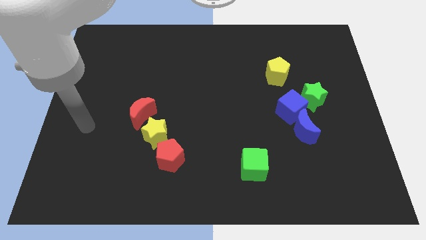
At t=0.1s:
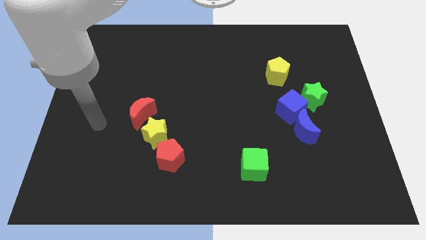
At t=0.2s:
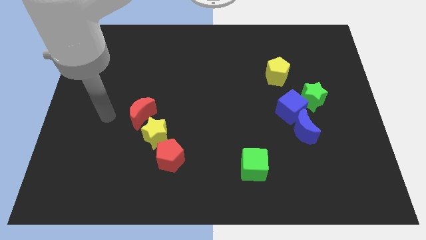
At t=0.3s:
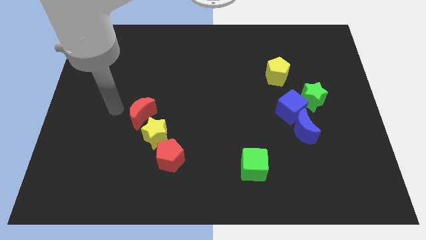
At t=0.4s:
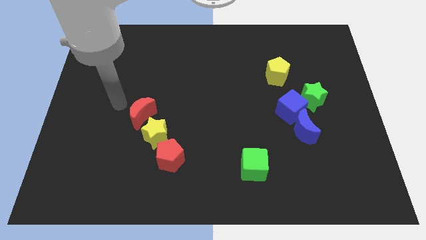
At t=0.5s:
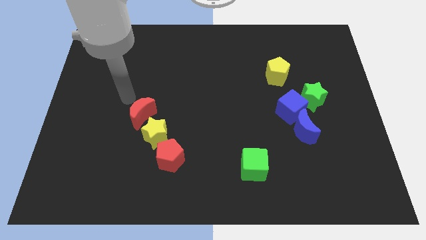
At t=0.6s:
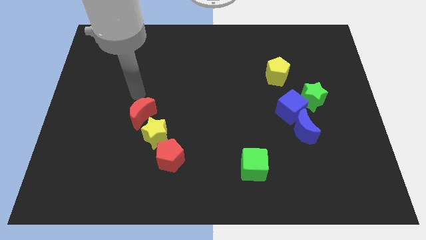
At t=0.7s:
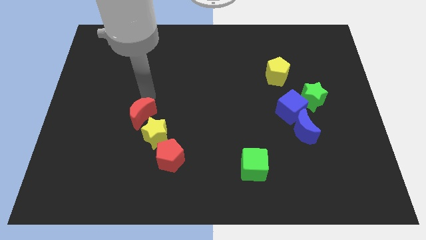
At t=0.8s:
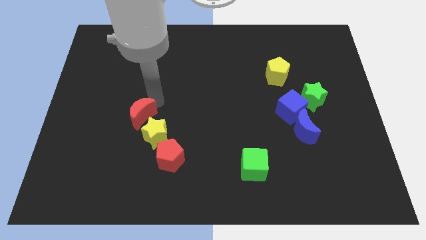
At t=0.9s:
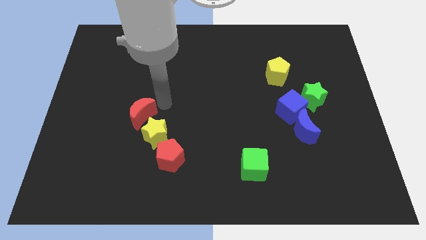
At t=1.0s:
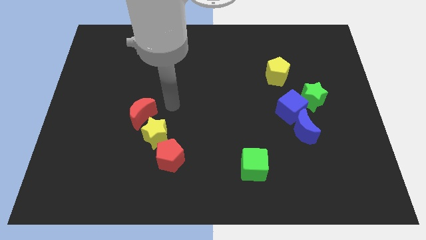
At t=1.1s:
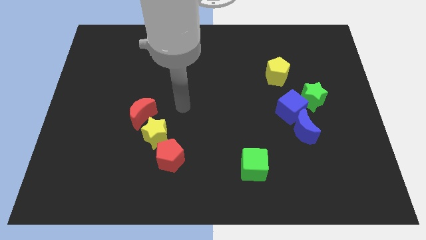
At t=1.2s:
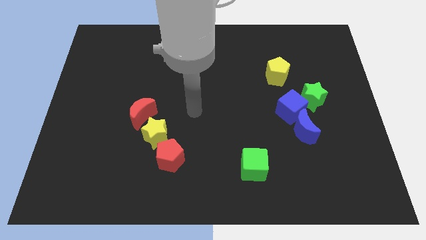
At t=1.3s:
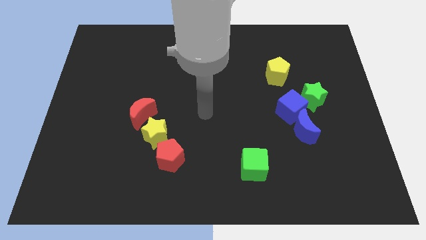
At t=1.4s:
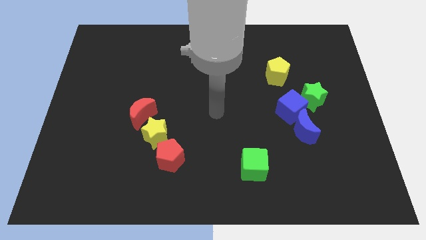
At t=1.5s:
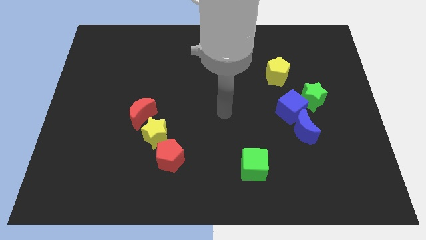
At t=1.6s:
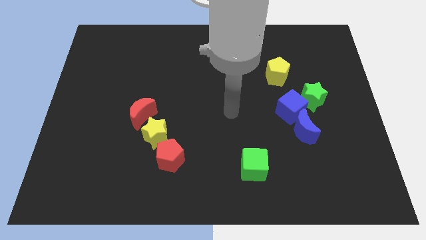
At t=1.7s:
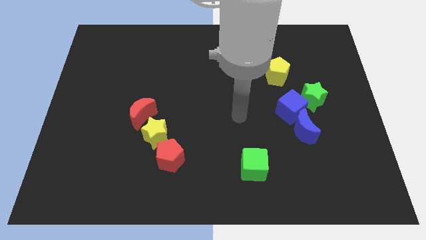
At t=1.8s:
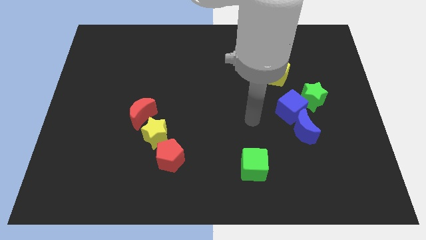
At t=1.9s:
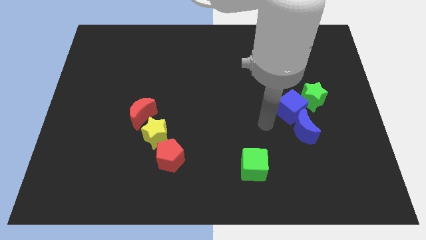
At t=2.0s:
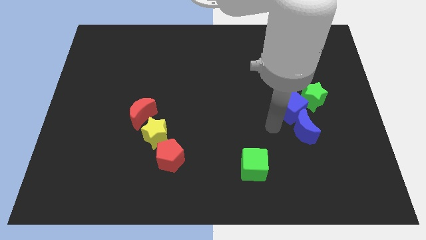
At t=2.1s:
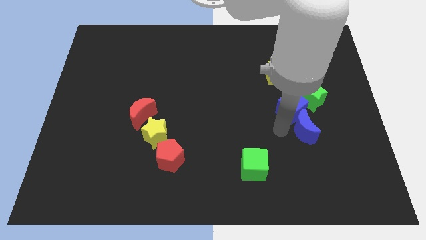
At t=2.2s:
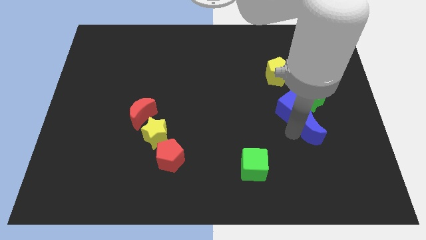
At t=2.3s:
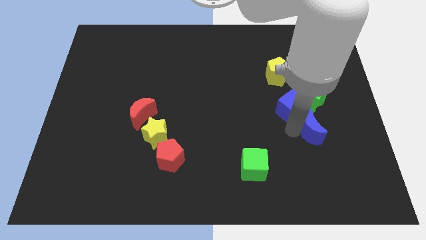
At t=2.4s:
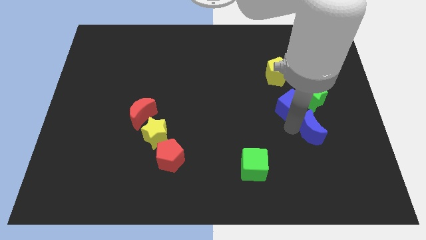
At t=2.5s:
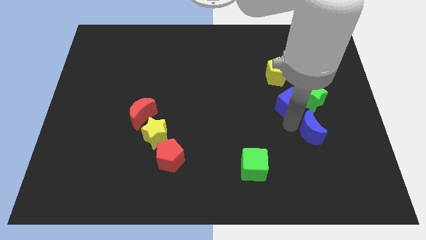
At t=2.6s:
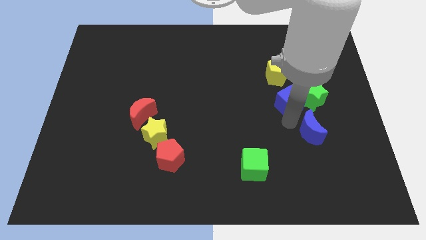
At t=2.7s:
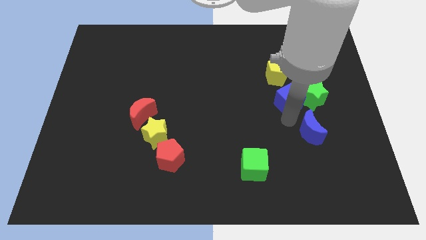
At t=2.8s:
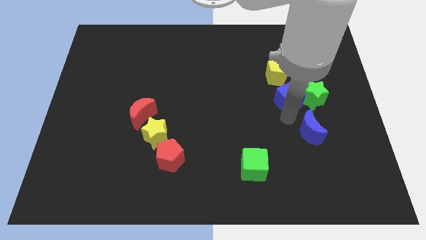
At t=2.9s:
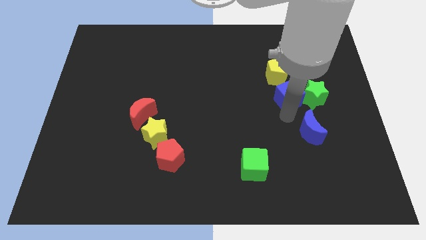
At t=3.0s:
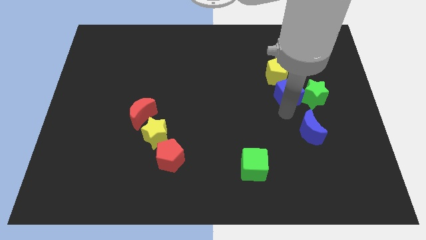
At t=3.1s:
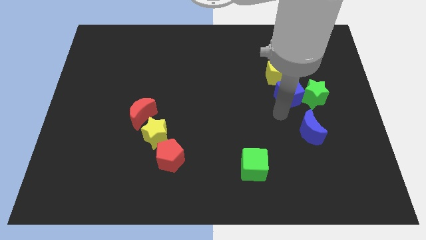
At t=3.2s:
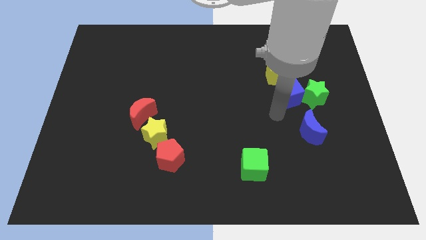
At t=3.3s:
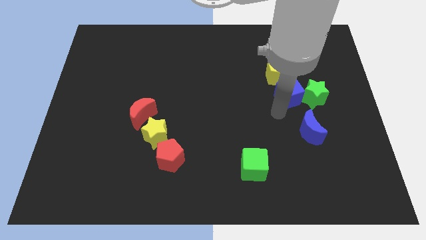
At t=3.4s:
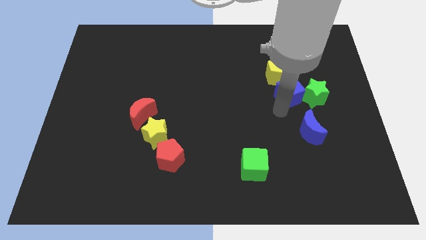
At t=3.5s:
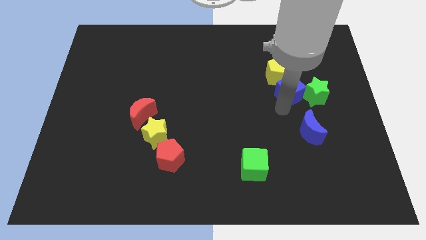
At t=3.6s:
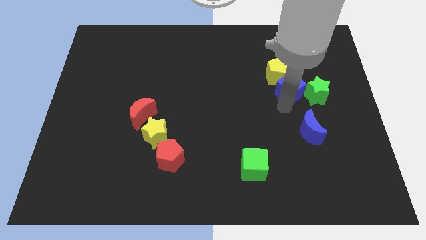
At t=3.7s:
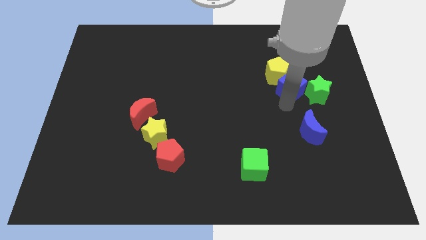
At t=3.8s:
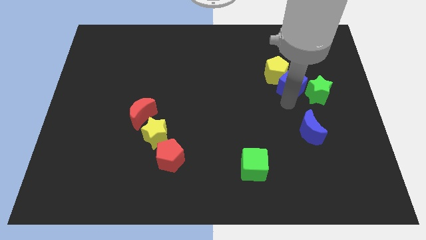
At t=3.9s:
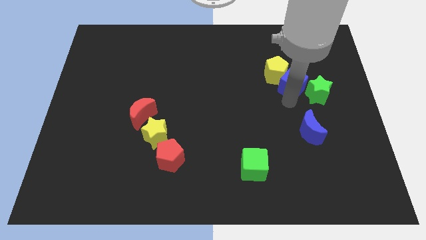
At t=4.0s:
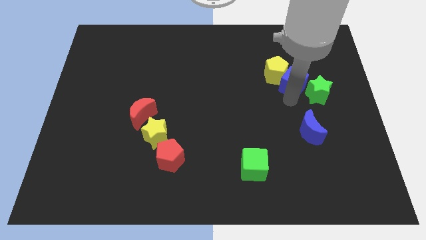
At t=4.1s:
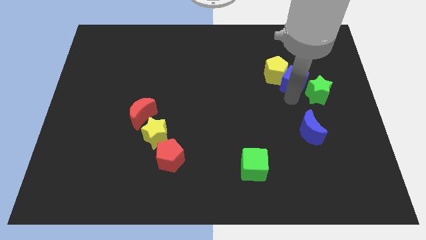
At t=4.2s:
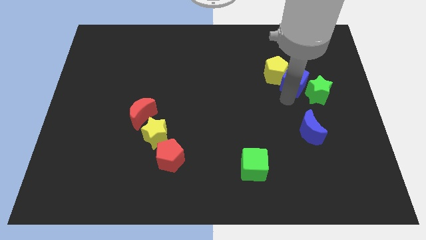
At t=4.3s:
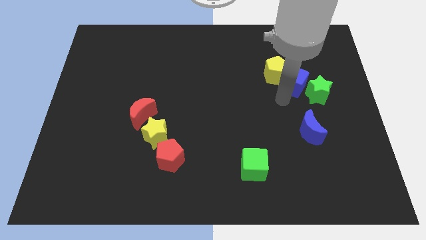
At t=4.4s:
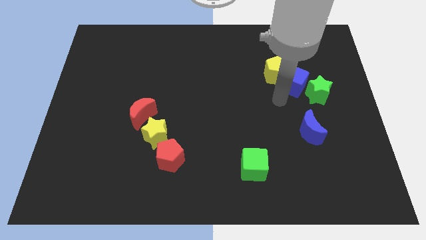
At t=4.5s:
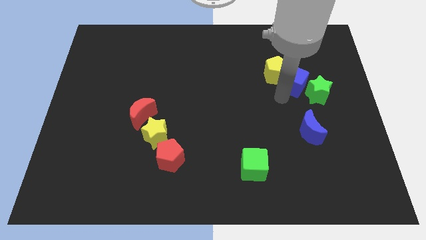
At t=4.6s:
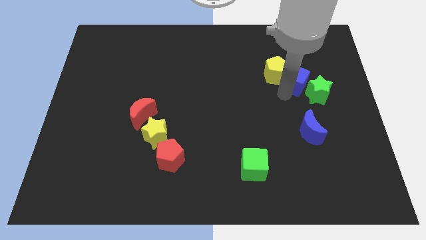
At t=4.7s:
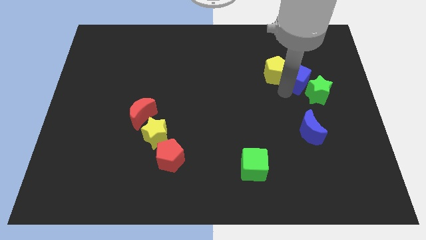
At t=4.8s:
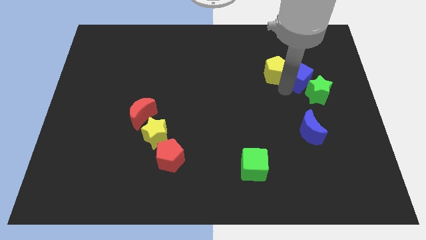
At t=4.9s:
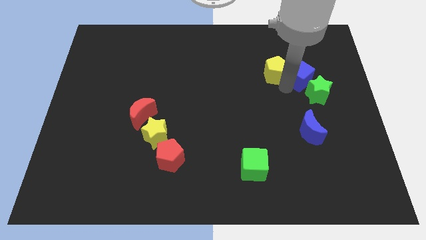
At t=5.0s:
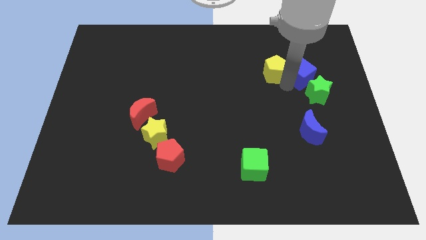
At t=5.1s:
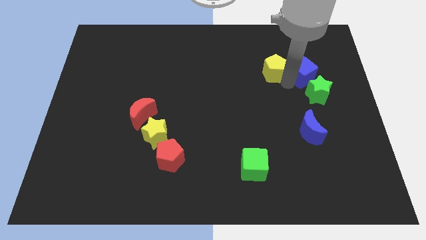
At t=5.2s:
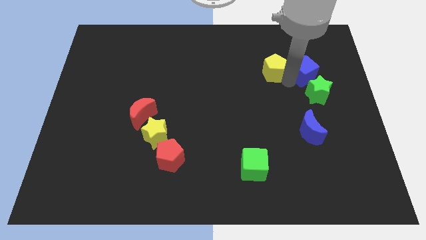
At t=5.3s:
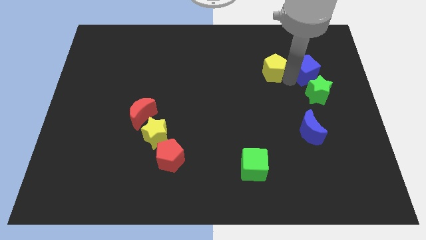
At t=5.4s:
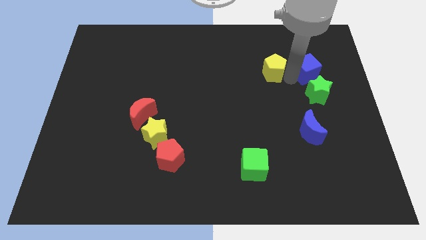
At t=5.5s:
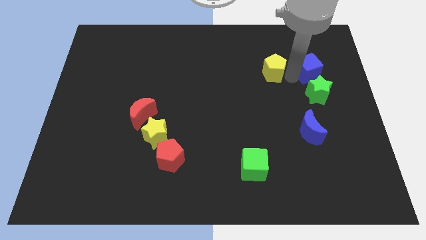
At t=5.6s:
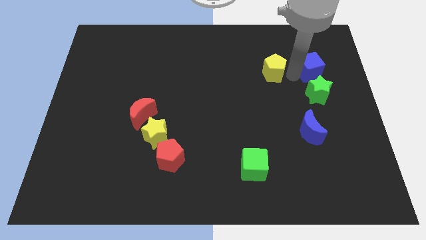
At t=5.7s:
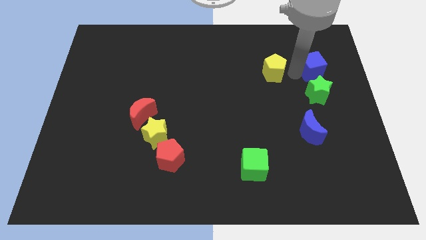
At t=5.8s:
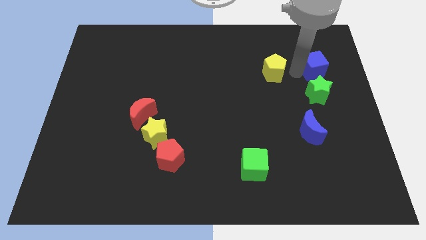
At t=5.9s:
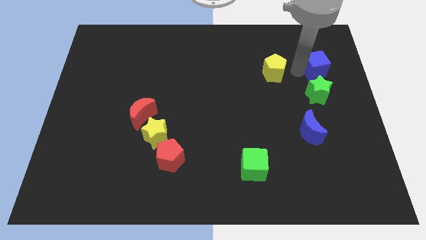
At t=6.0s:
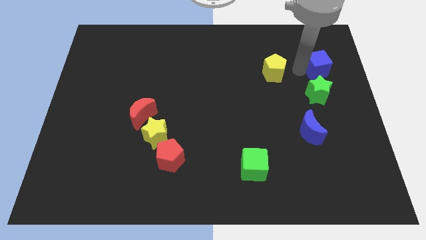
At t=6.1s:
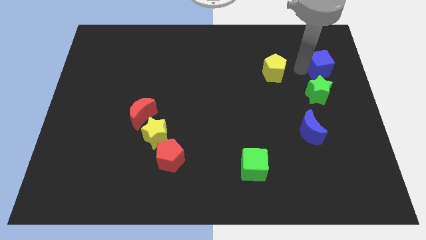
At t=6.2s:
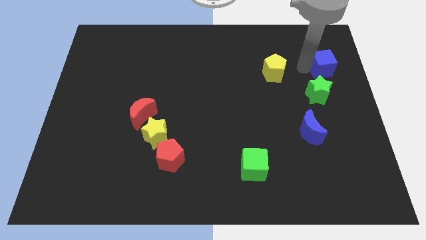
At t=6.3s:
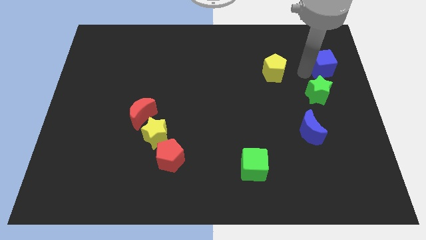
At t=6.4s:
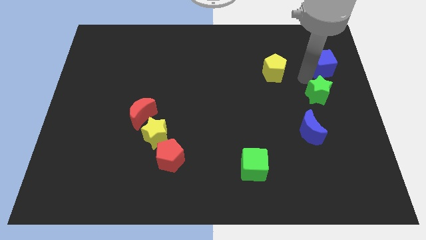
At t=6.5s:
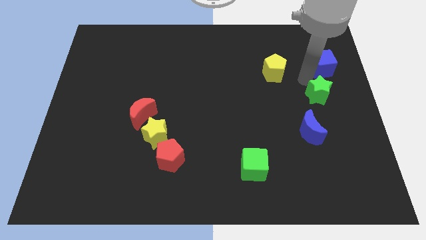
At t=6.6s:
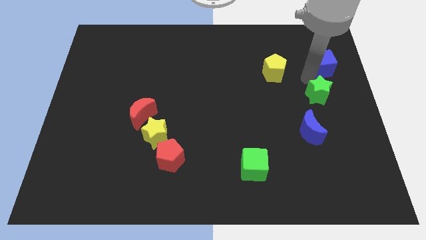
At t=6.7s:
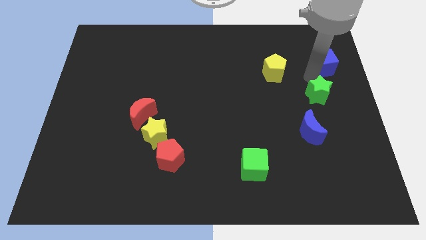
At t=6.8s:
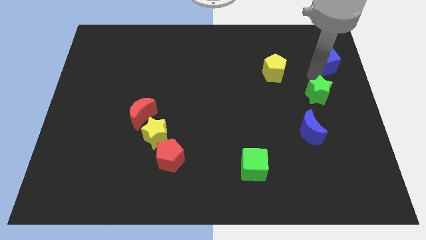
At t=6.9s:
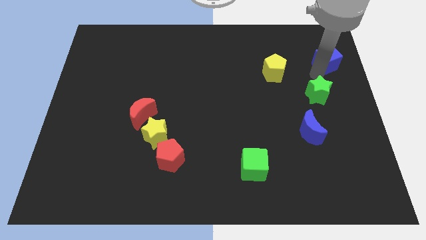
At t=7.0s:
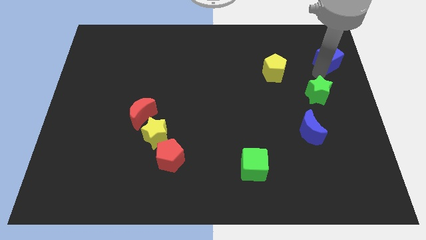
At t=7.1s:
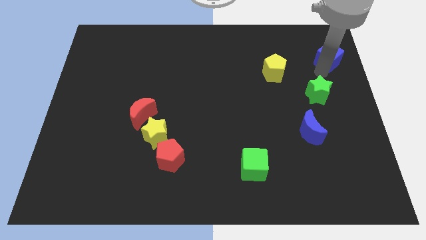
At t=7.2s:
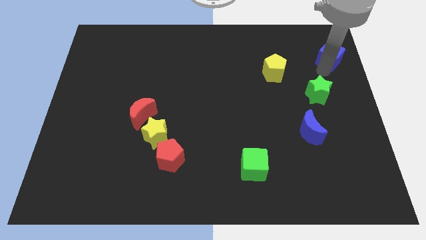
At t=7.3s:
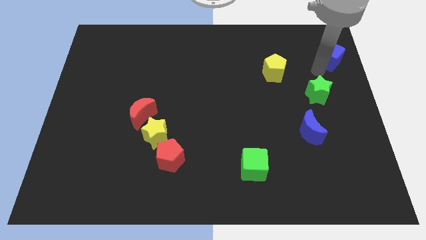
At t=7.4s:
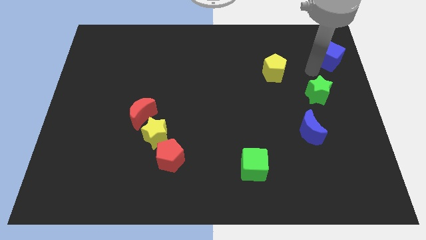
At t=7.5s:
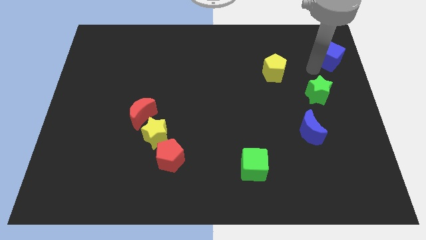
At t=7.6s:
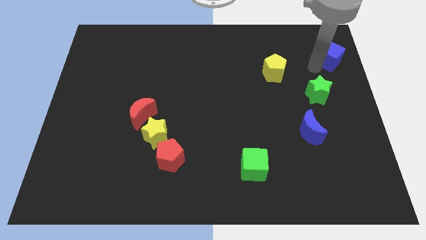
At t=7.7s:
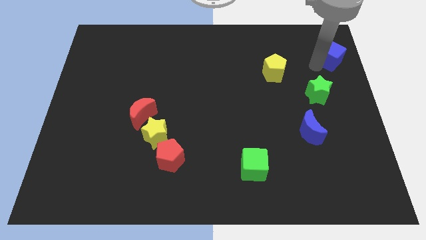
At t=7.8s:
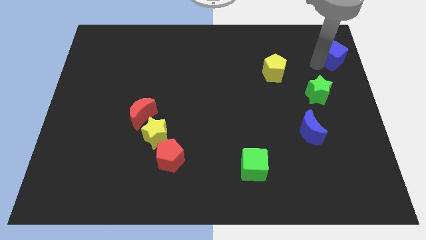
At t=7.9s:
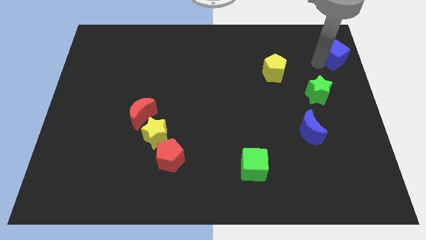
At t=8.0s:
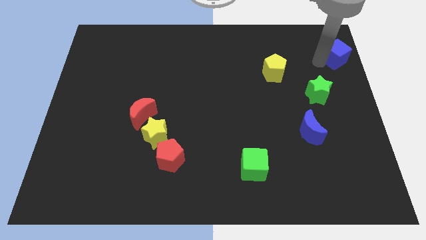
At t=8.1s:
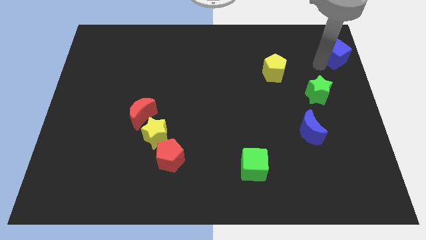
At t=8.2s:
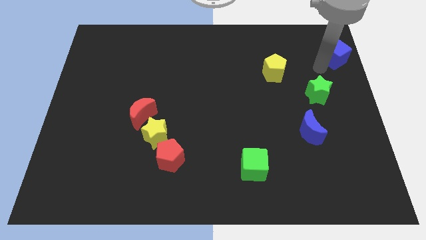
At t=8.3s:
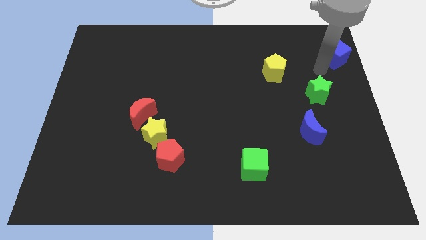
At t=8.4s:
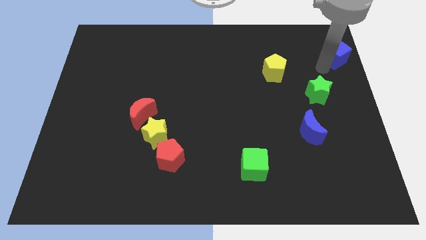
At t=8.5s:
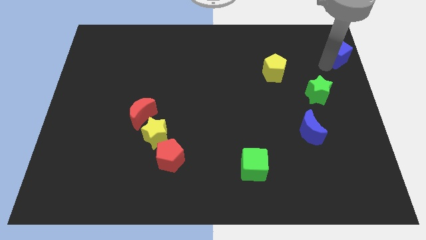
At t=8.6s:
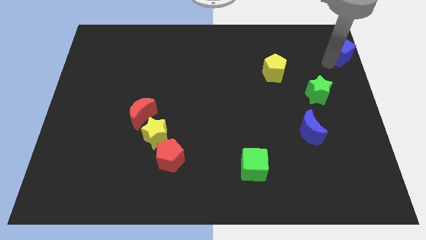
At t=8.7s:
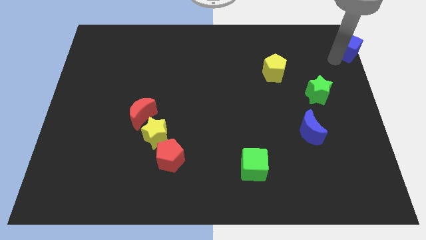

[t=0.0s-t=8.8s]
put the blue cube to the top right
